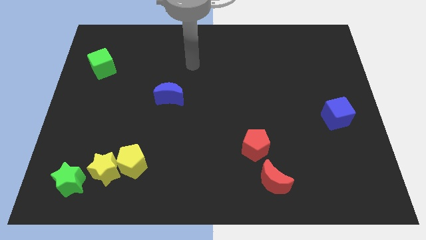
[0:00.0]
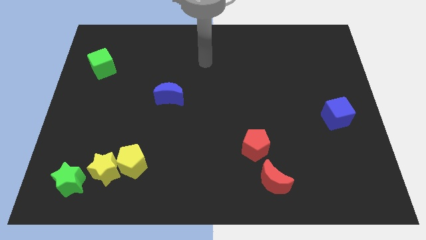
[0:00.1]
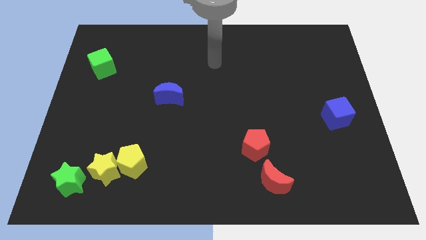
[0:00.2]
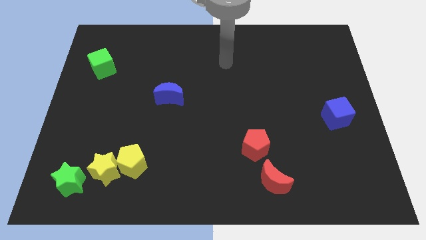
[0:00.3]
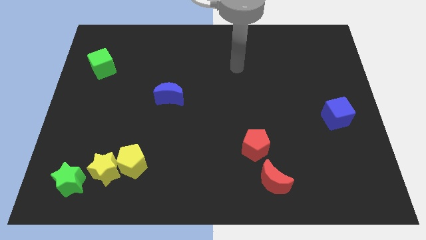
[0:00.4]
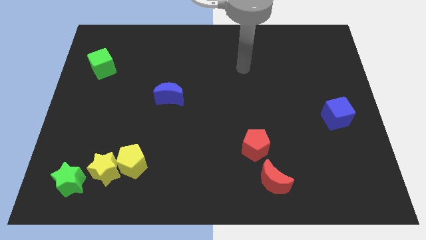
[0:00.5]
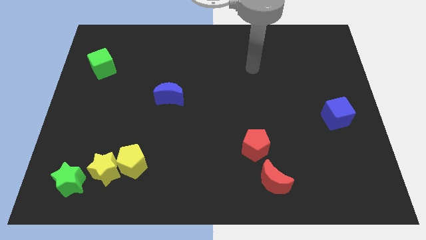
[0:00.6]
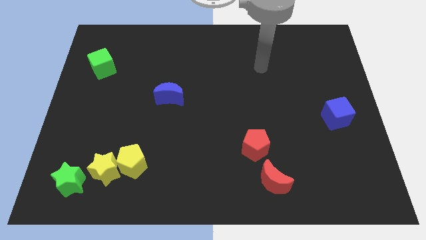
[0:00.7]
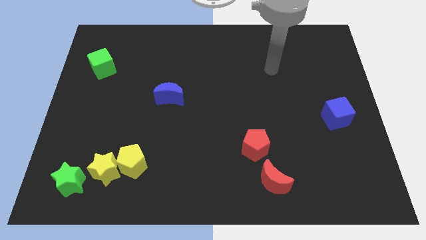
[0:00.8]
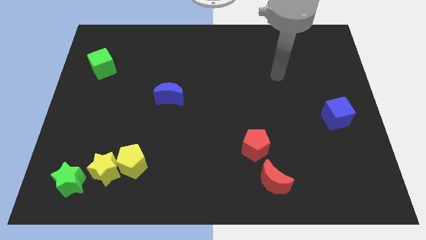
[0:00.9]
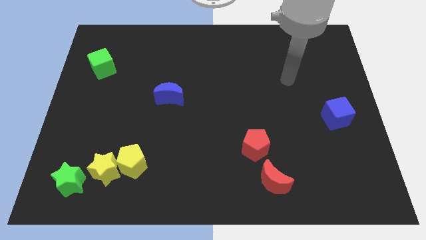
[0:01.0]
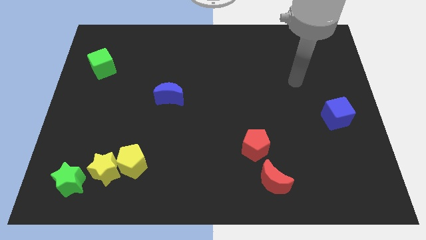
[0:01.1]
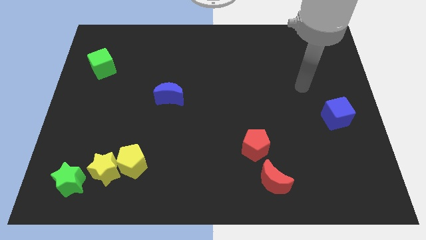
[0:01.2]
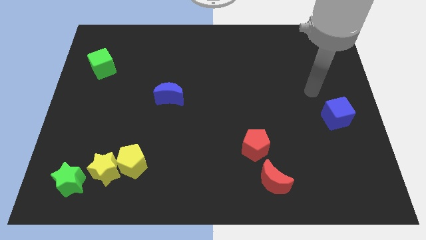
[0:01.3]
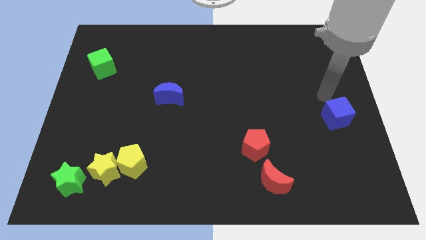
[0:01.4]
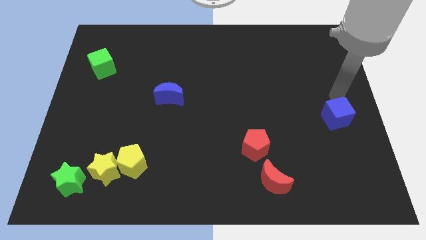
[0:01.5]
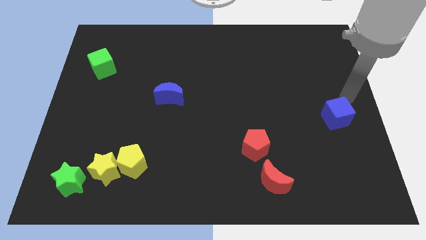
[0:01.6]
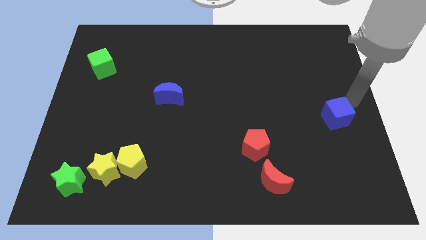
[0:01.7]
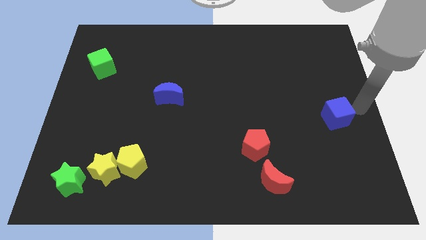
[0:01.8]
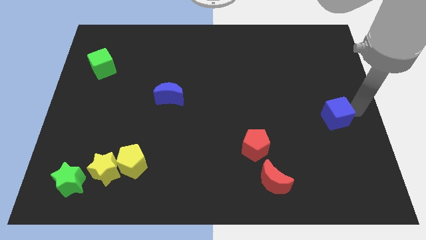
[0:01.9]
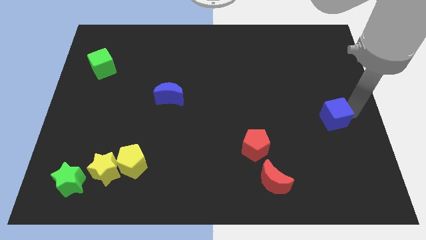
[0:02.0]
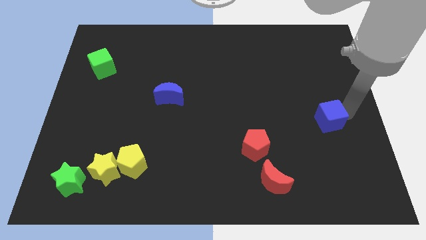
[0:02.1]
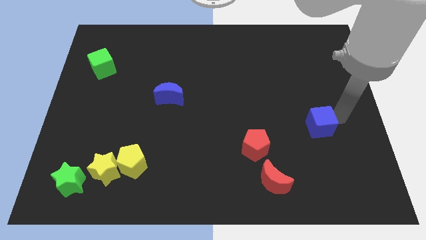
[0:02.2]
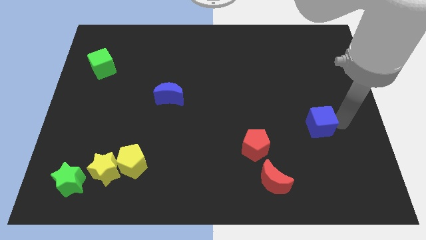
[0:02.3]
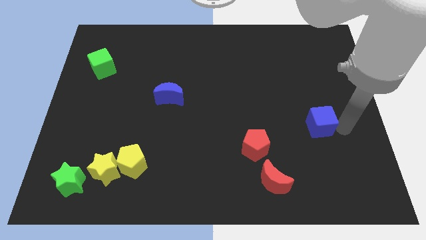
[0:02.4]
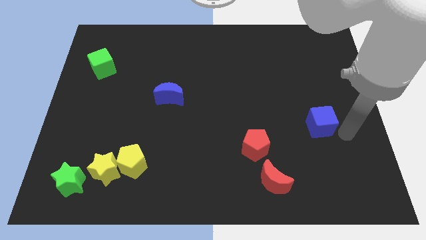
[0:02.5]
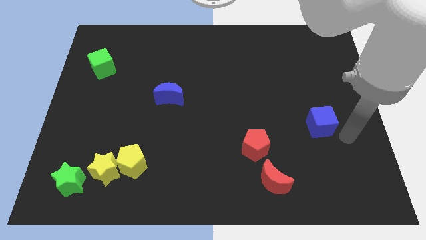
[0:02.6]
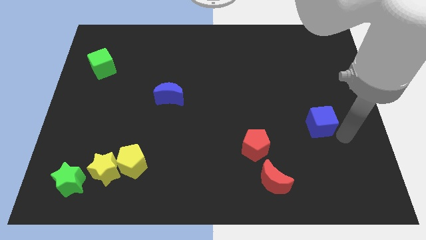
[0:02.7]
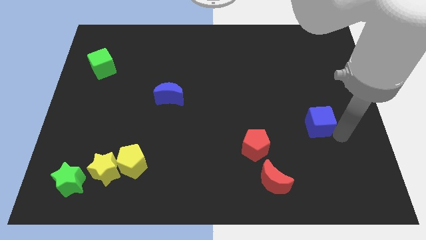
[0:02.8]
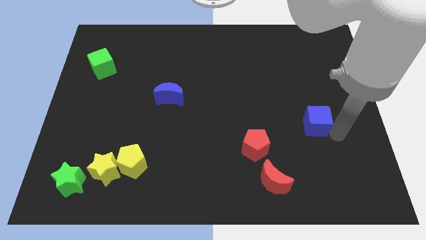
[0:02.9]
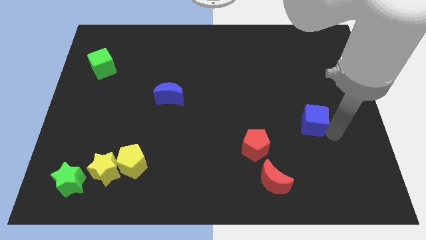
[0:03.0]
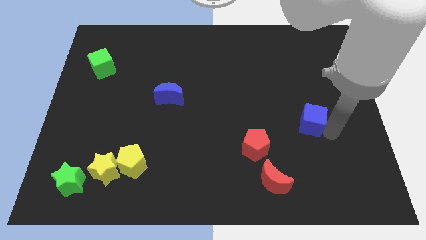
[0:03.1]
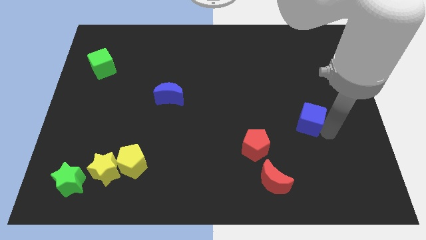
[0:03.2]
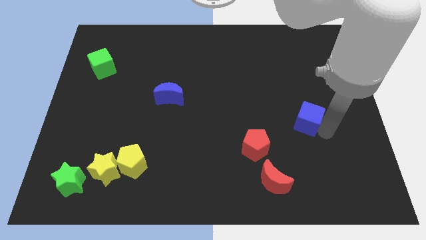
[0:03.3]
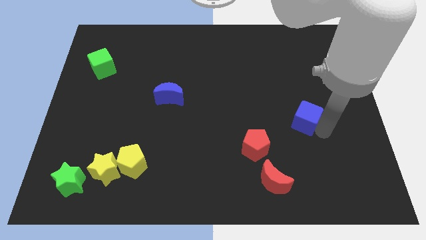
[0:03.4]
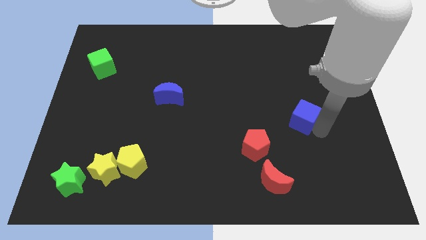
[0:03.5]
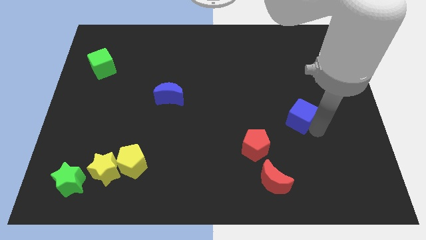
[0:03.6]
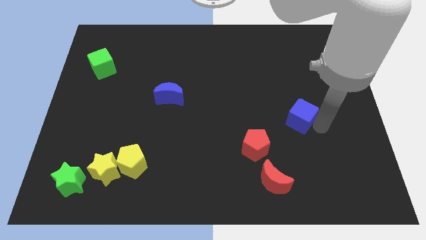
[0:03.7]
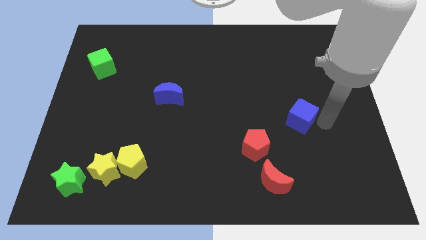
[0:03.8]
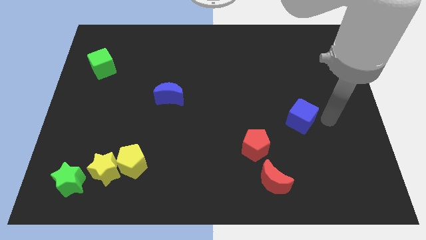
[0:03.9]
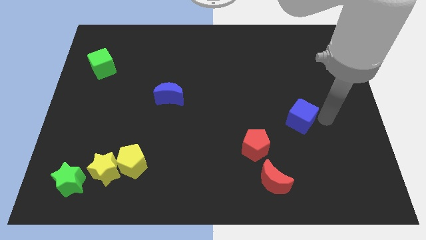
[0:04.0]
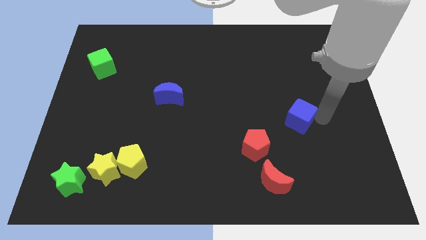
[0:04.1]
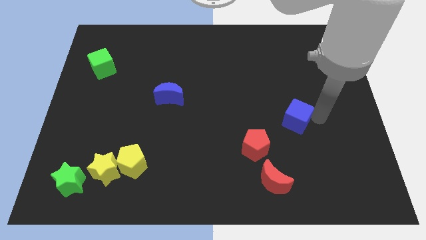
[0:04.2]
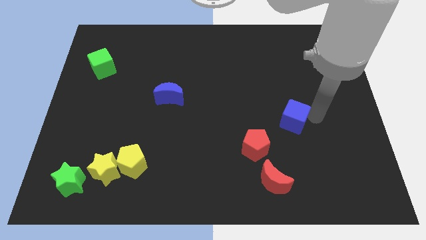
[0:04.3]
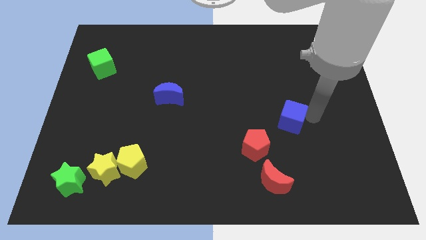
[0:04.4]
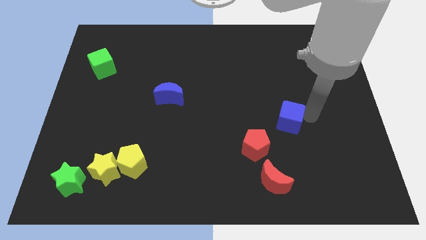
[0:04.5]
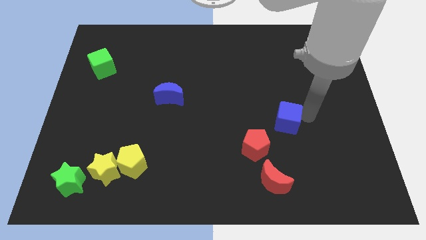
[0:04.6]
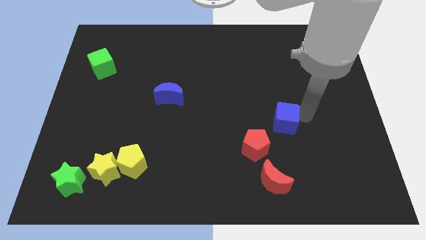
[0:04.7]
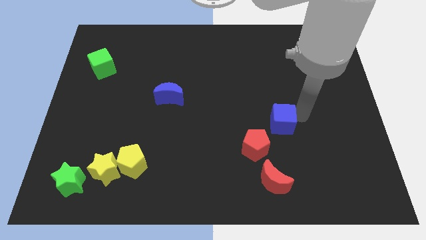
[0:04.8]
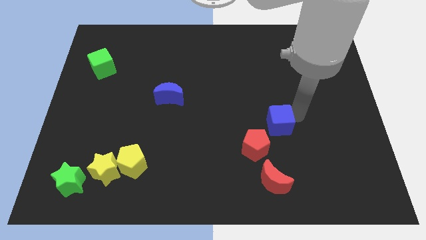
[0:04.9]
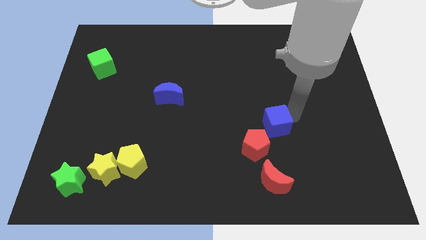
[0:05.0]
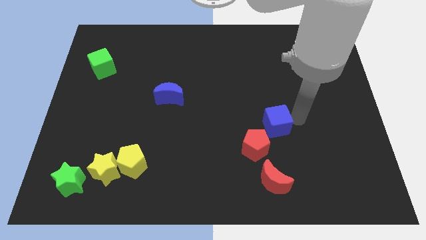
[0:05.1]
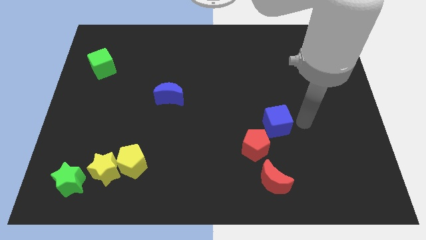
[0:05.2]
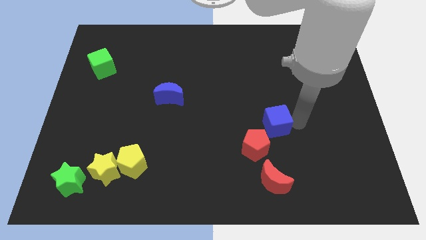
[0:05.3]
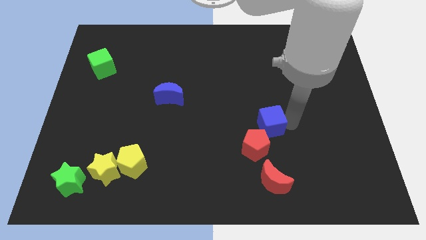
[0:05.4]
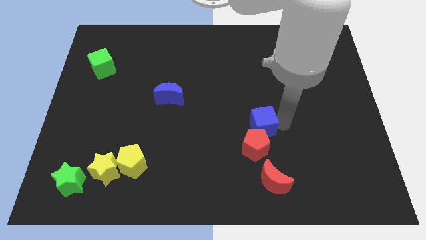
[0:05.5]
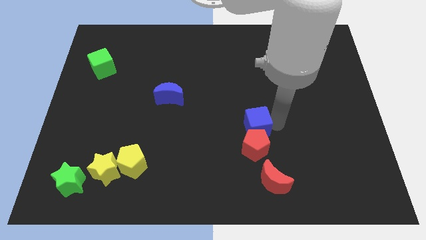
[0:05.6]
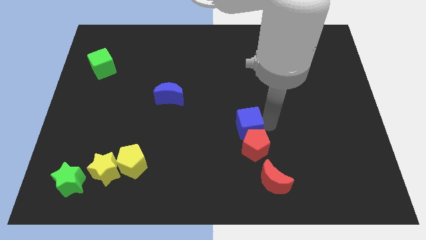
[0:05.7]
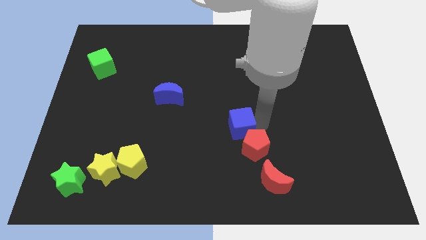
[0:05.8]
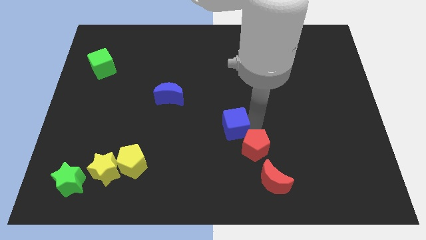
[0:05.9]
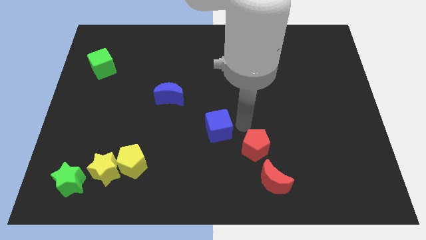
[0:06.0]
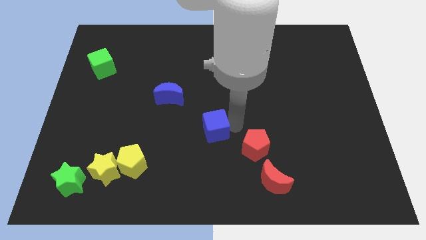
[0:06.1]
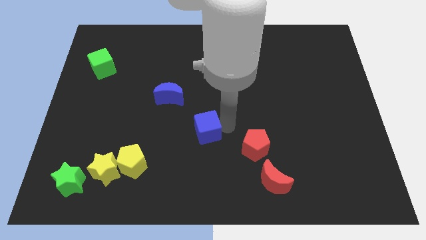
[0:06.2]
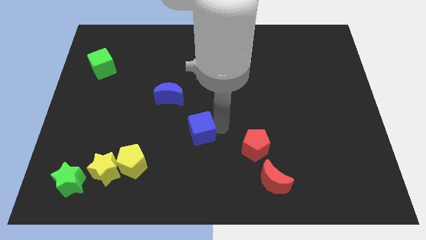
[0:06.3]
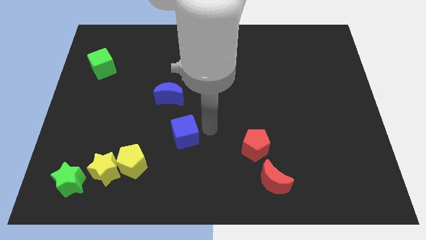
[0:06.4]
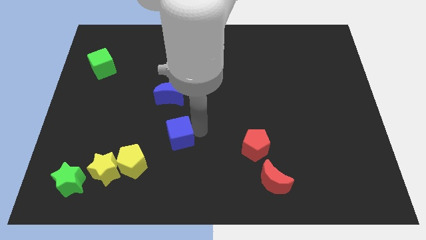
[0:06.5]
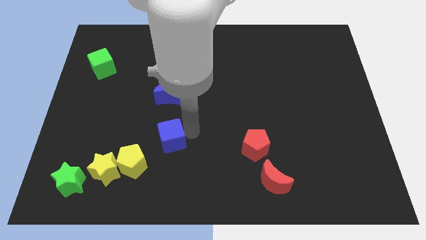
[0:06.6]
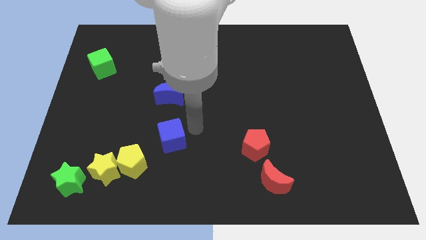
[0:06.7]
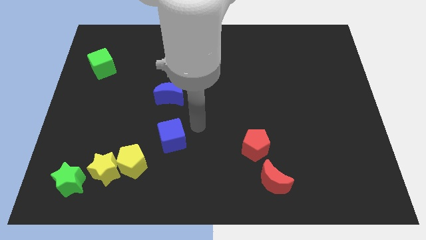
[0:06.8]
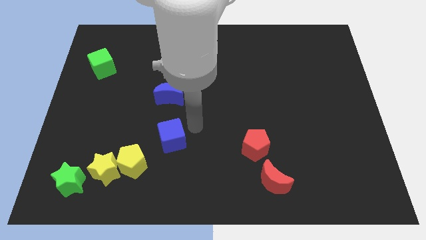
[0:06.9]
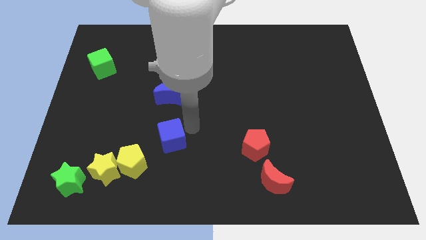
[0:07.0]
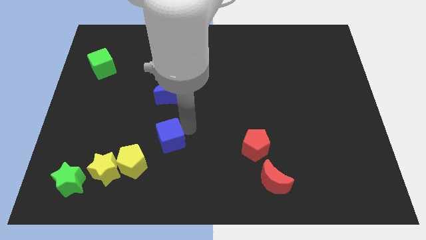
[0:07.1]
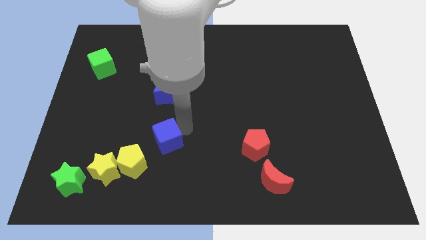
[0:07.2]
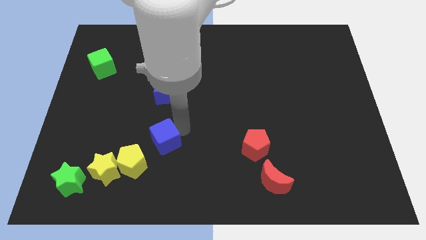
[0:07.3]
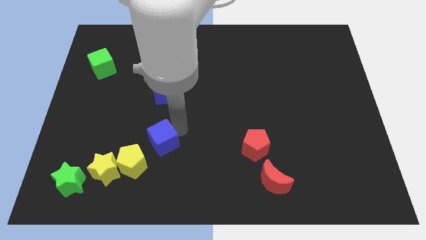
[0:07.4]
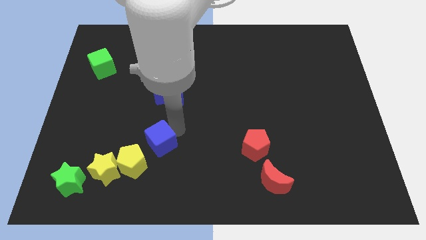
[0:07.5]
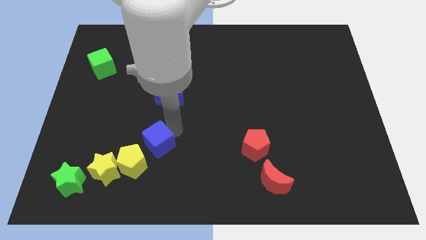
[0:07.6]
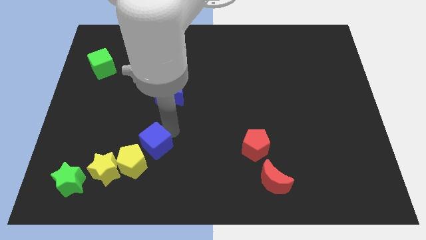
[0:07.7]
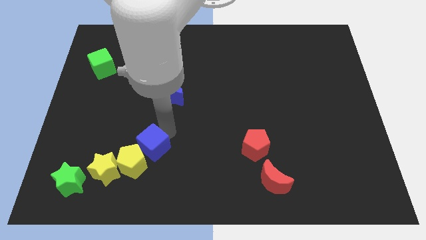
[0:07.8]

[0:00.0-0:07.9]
put the blue cube to the yellow pentagon
